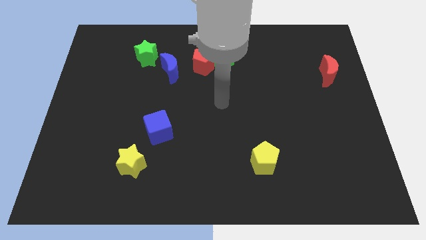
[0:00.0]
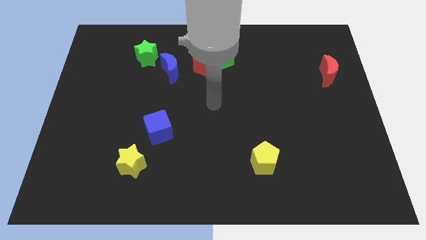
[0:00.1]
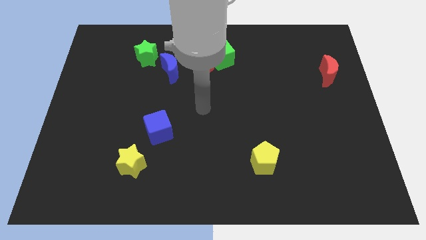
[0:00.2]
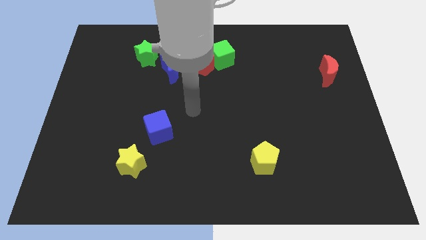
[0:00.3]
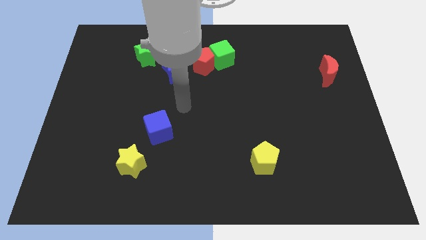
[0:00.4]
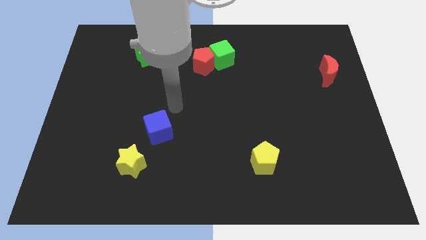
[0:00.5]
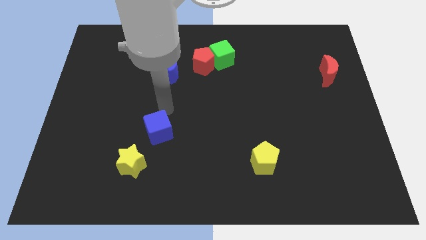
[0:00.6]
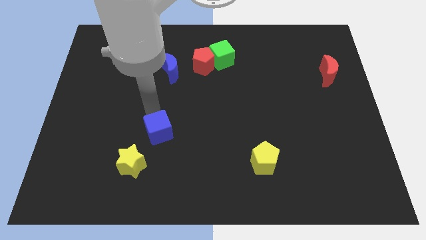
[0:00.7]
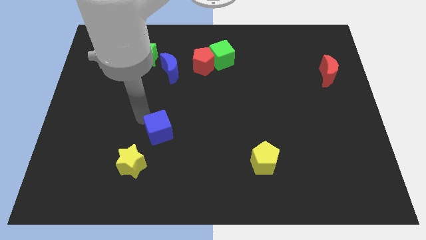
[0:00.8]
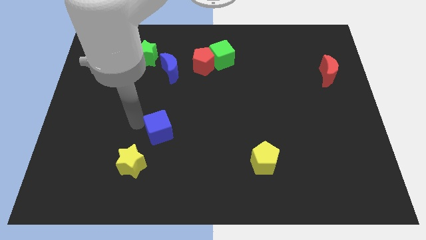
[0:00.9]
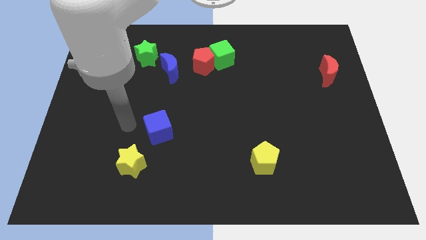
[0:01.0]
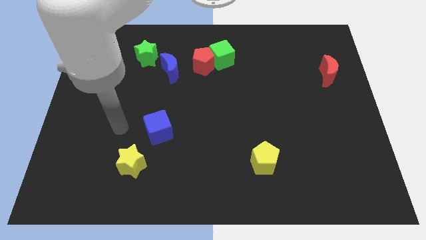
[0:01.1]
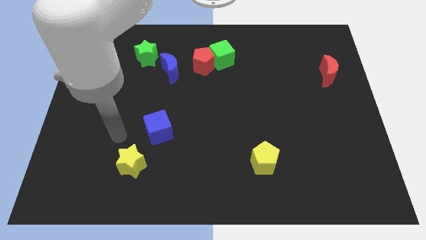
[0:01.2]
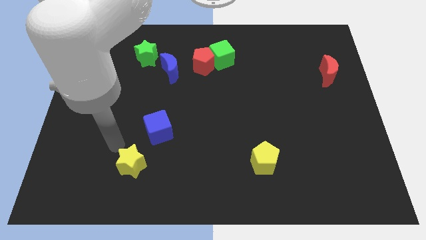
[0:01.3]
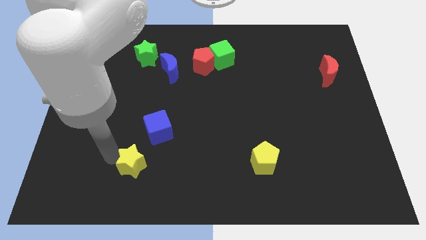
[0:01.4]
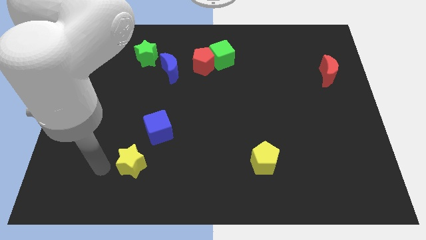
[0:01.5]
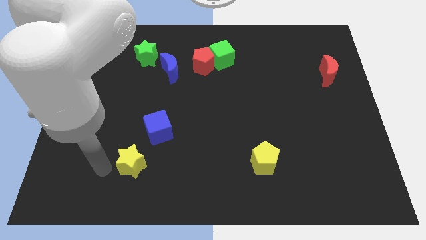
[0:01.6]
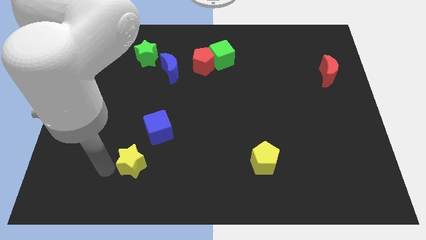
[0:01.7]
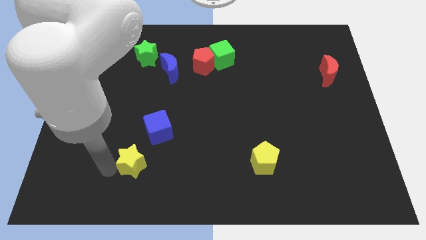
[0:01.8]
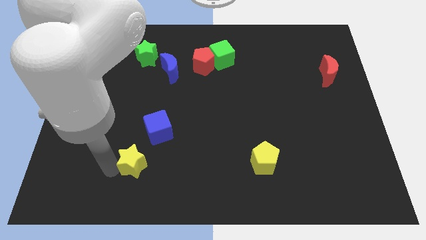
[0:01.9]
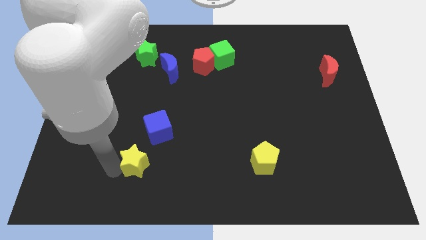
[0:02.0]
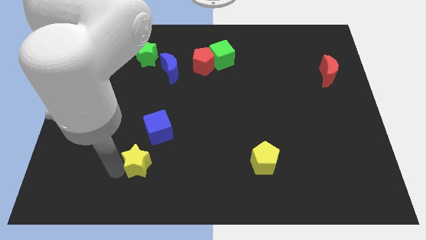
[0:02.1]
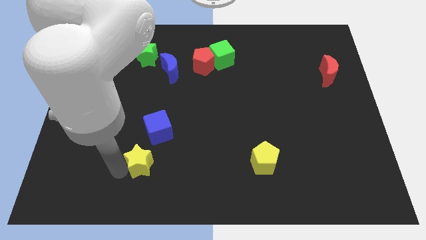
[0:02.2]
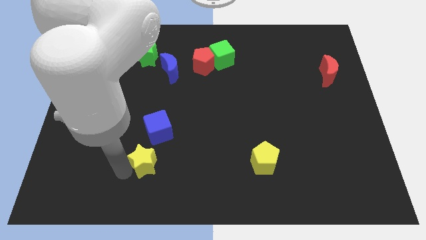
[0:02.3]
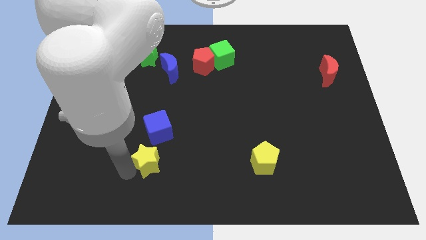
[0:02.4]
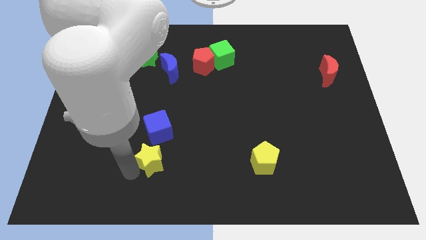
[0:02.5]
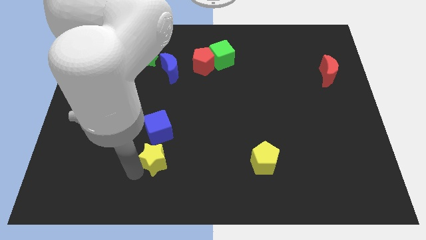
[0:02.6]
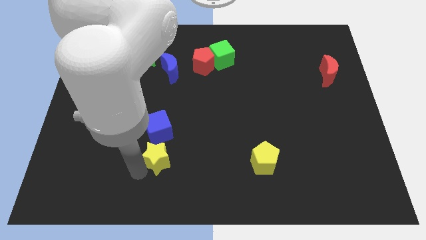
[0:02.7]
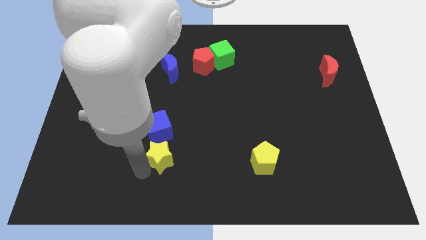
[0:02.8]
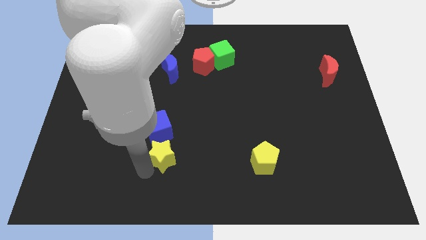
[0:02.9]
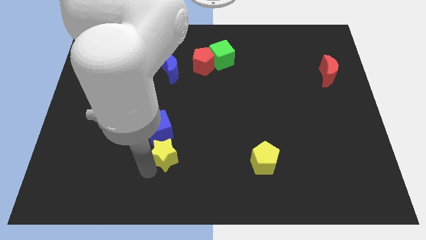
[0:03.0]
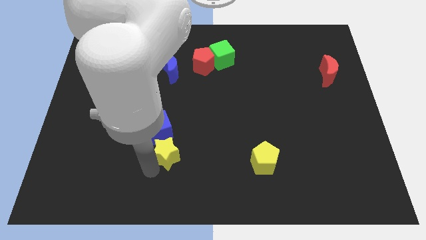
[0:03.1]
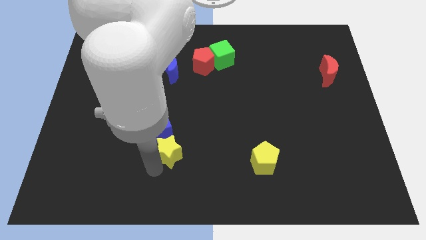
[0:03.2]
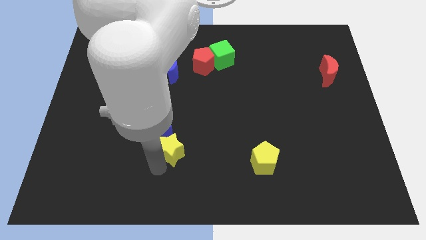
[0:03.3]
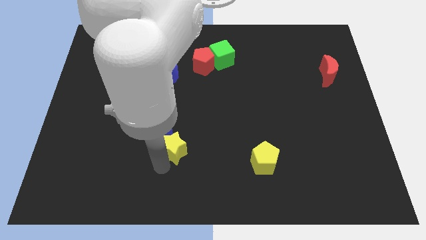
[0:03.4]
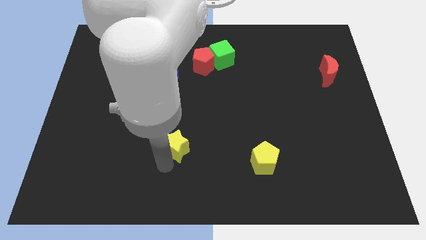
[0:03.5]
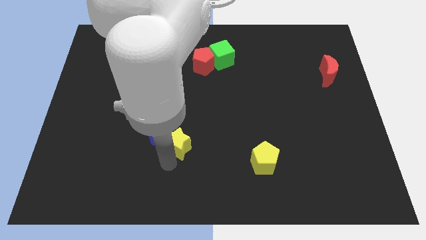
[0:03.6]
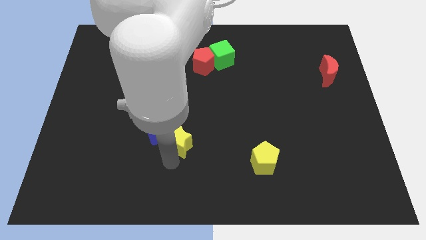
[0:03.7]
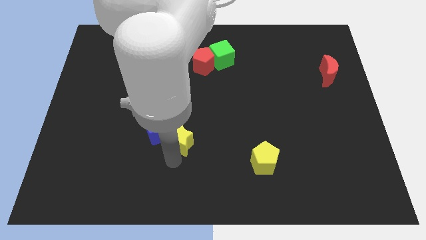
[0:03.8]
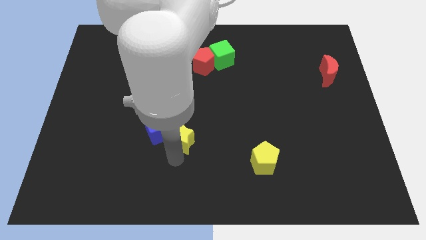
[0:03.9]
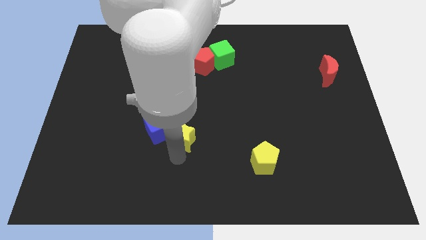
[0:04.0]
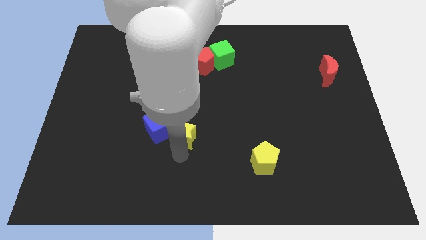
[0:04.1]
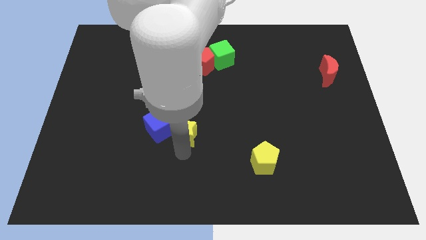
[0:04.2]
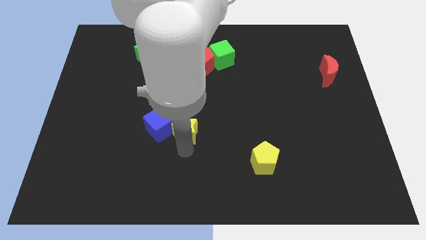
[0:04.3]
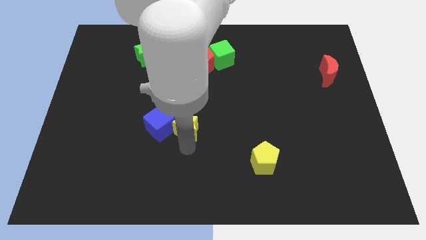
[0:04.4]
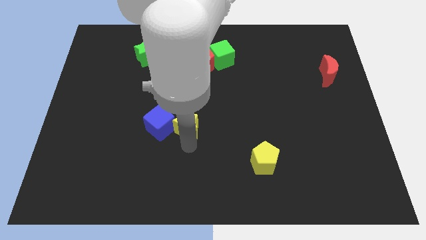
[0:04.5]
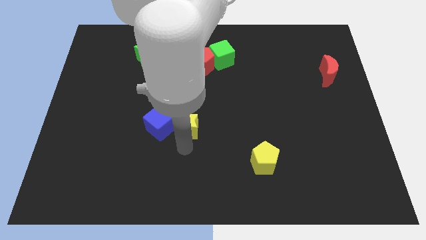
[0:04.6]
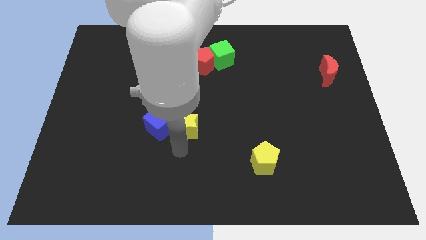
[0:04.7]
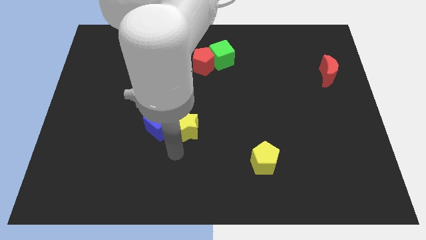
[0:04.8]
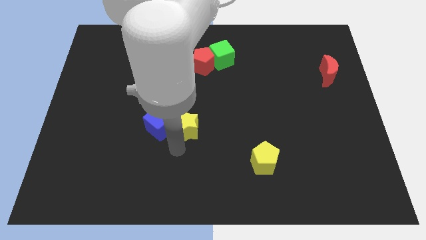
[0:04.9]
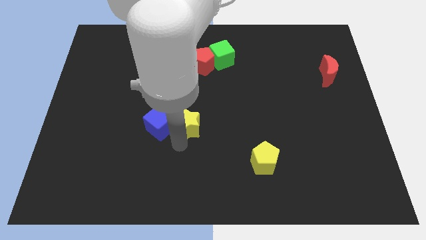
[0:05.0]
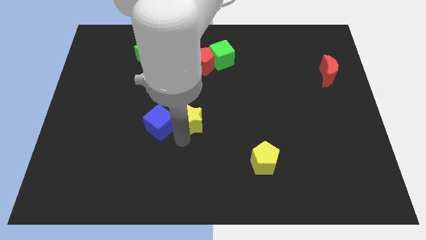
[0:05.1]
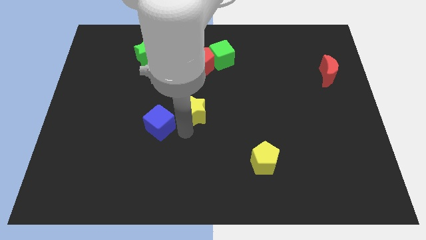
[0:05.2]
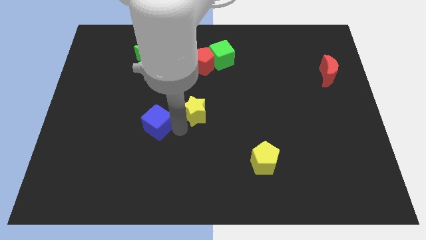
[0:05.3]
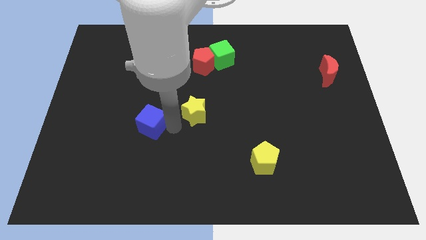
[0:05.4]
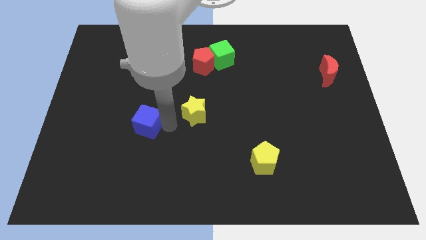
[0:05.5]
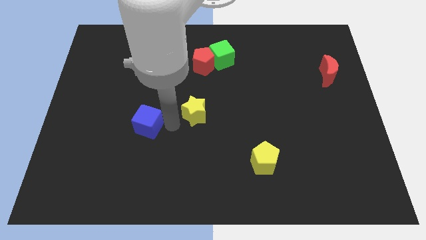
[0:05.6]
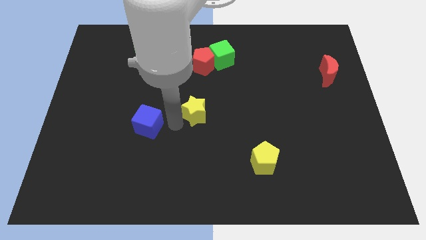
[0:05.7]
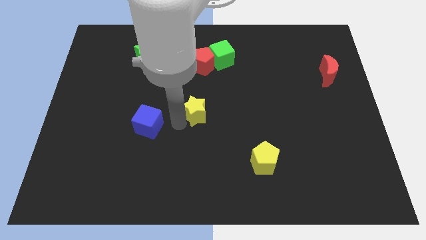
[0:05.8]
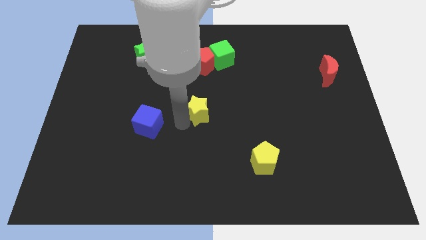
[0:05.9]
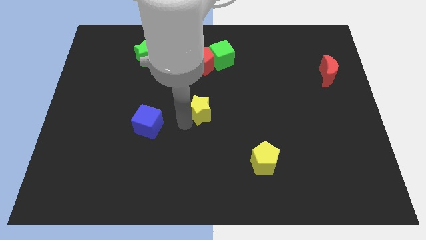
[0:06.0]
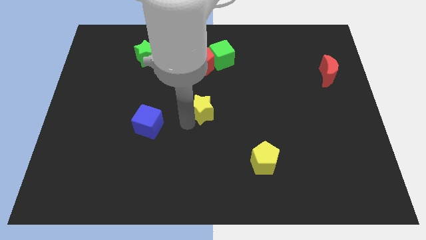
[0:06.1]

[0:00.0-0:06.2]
slide the yellow star up and then right

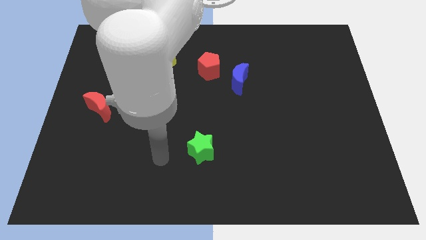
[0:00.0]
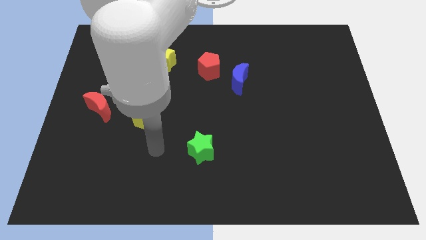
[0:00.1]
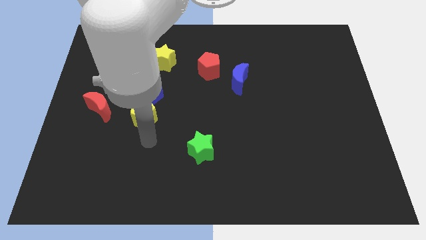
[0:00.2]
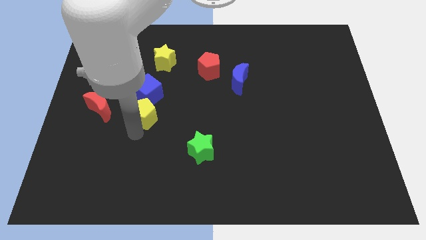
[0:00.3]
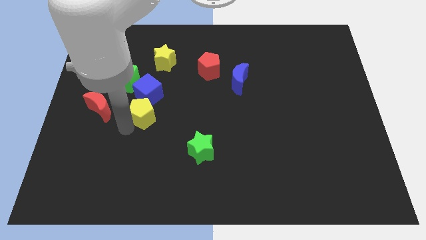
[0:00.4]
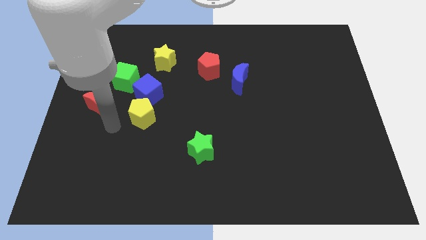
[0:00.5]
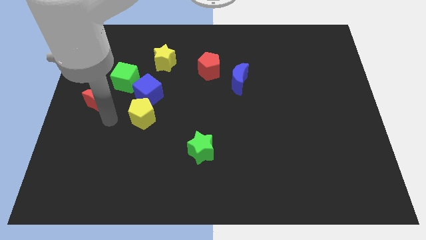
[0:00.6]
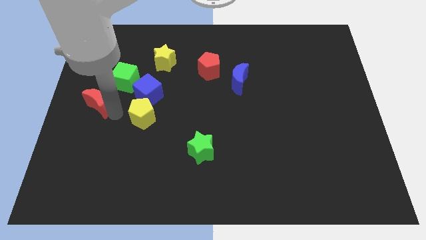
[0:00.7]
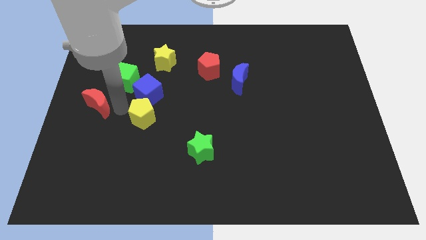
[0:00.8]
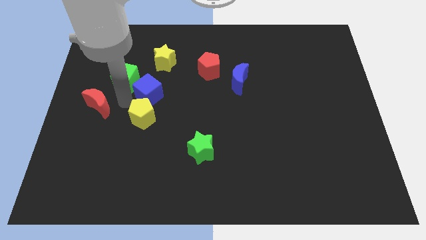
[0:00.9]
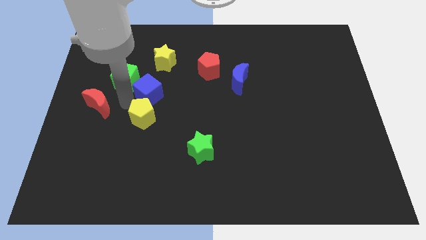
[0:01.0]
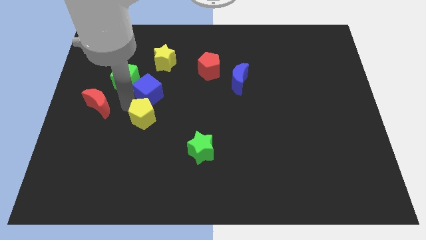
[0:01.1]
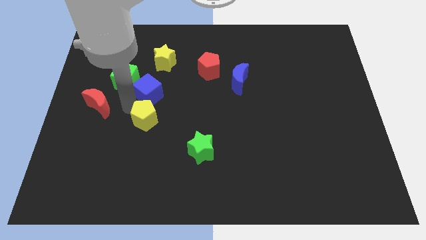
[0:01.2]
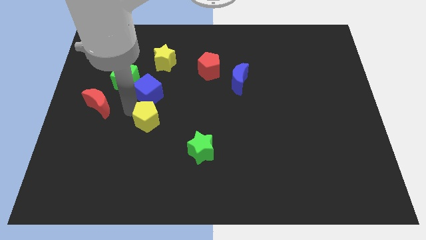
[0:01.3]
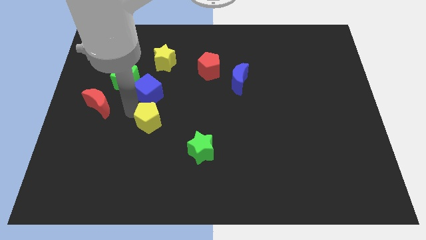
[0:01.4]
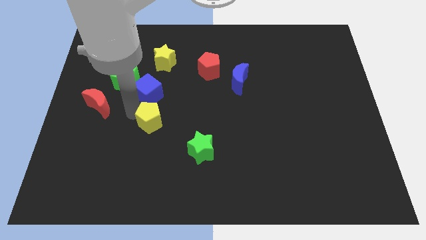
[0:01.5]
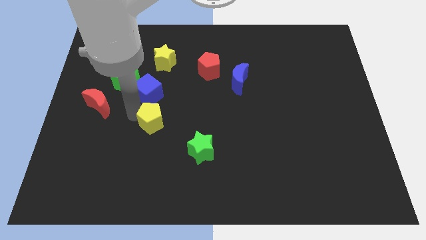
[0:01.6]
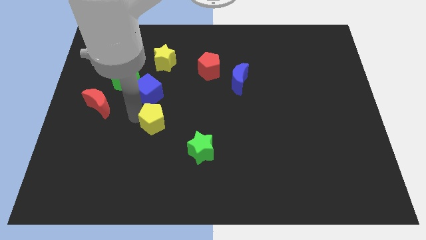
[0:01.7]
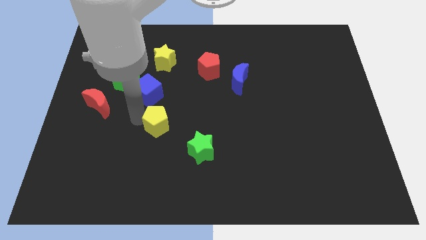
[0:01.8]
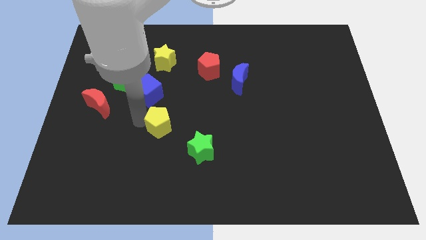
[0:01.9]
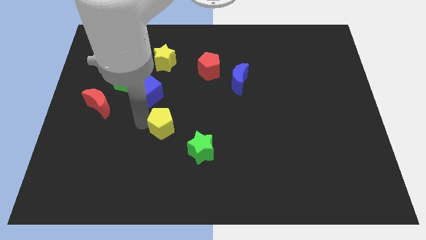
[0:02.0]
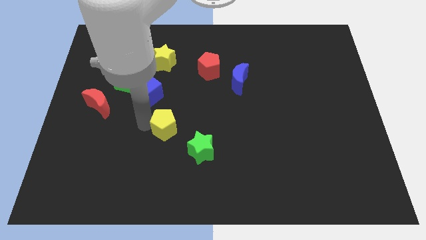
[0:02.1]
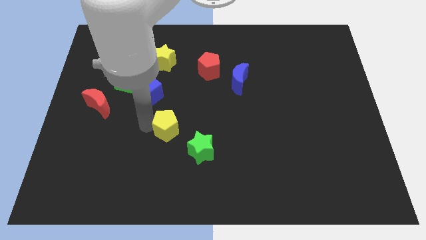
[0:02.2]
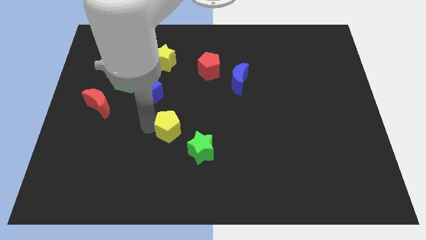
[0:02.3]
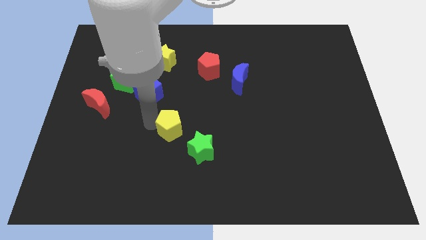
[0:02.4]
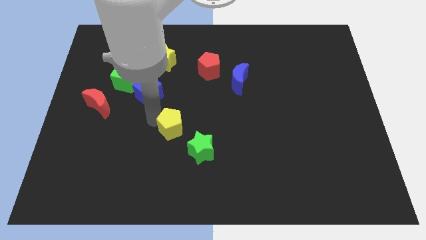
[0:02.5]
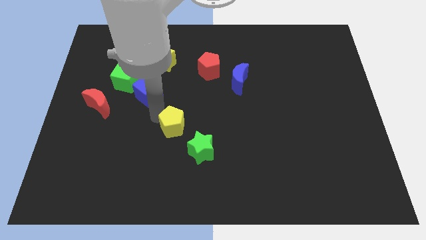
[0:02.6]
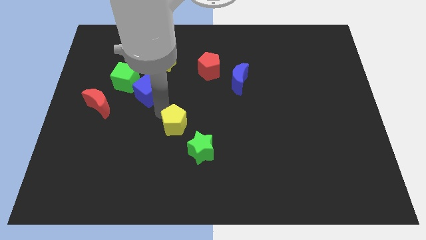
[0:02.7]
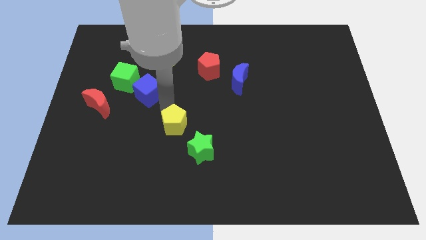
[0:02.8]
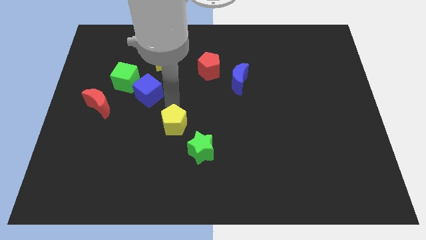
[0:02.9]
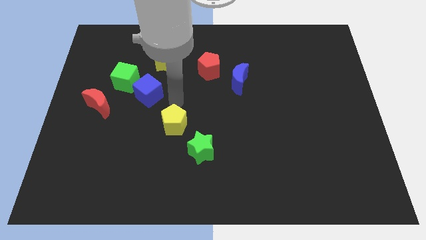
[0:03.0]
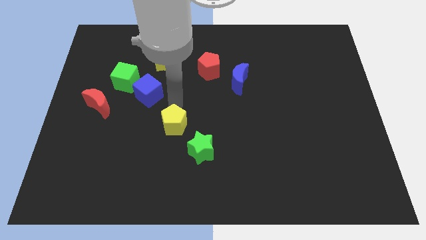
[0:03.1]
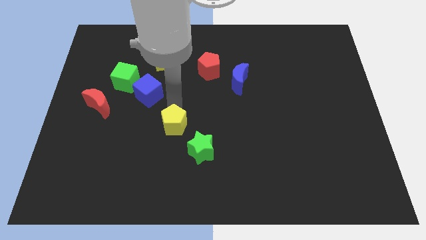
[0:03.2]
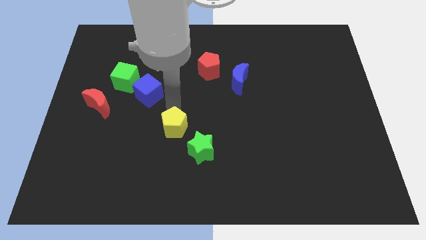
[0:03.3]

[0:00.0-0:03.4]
slightly push the yellow pentagon diagonally downwards and right
